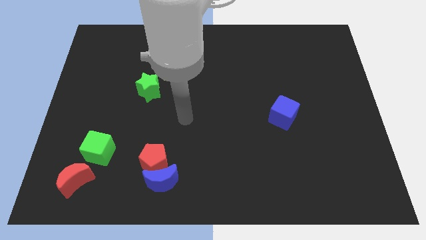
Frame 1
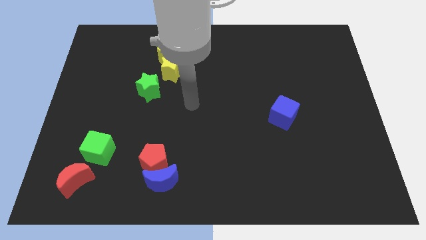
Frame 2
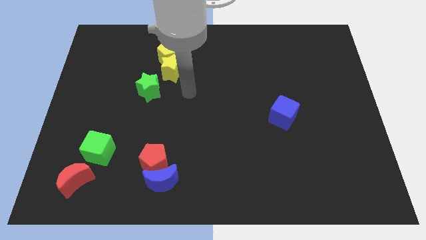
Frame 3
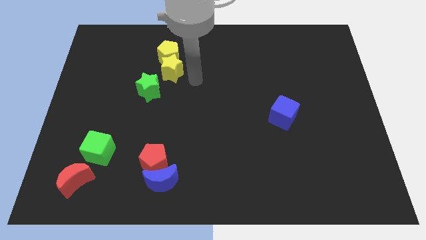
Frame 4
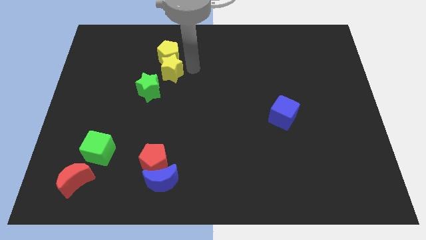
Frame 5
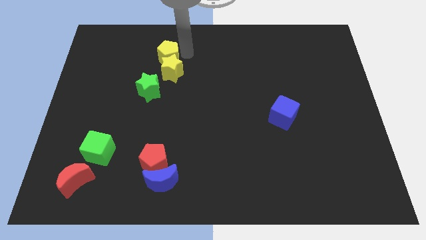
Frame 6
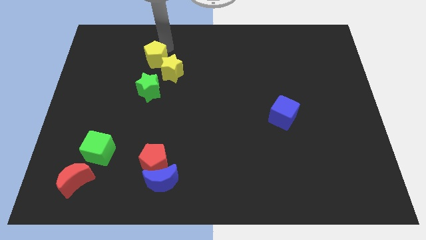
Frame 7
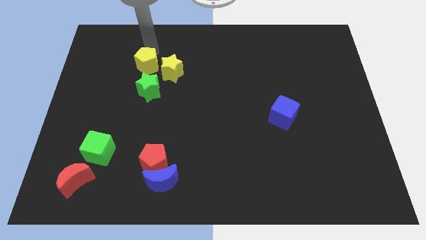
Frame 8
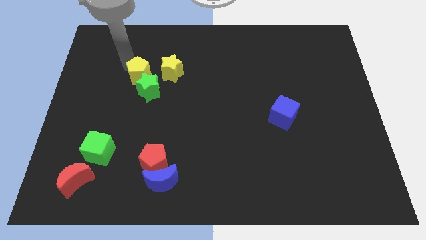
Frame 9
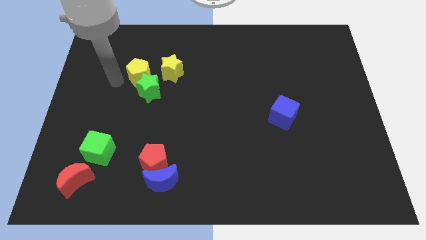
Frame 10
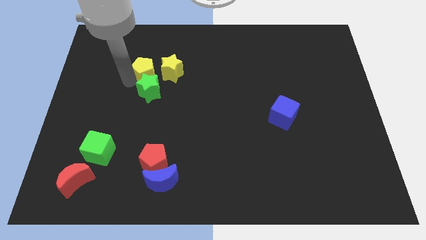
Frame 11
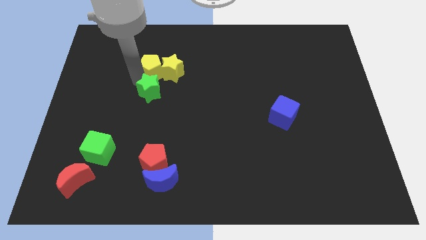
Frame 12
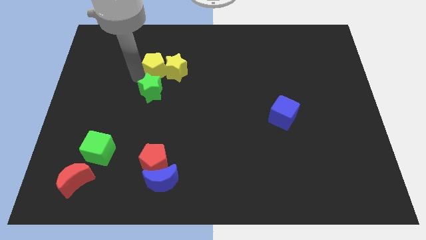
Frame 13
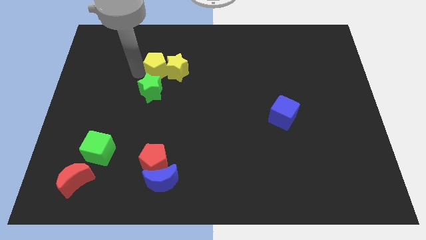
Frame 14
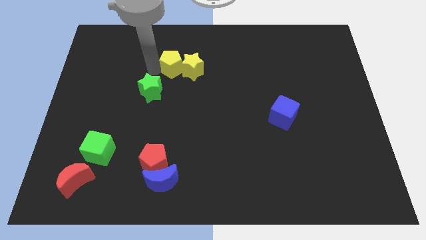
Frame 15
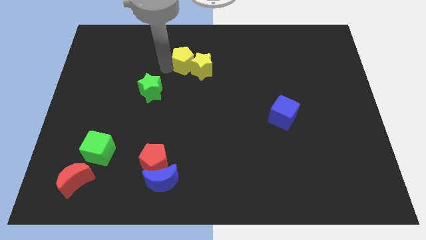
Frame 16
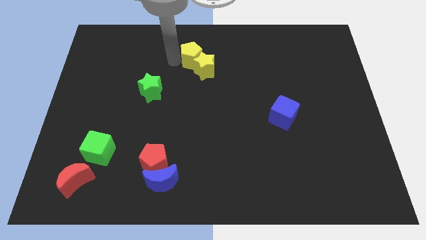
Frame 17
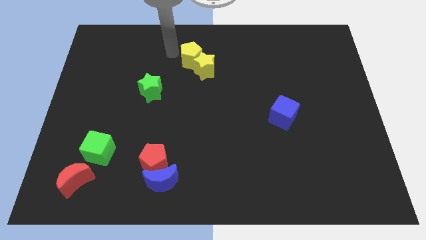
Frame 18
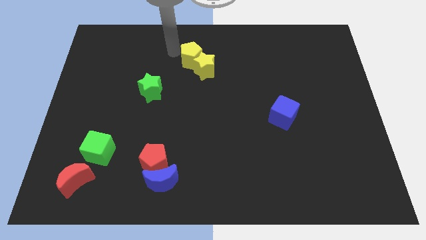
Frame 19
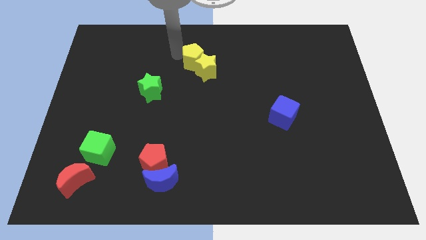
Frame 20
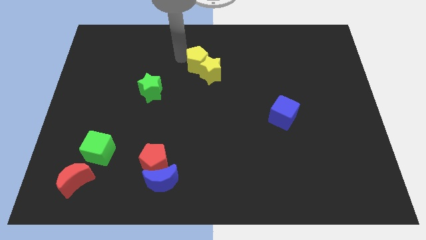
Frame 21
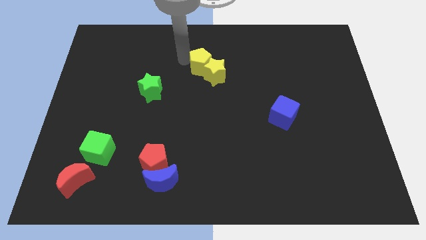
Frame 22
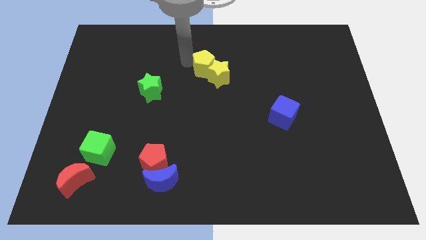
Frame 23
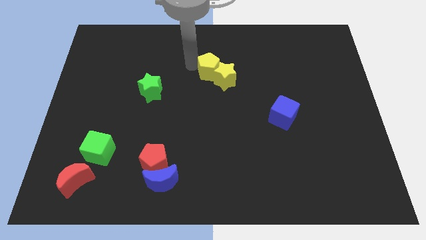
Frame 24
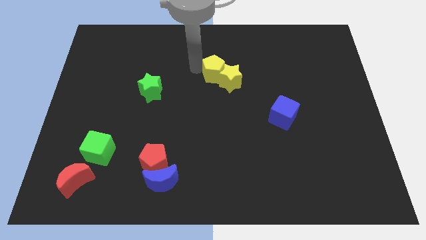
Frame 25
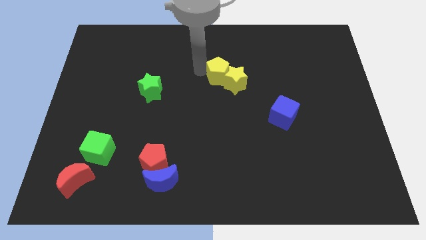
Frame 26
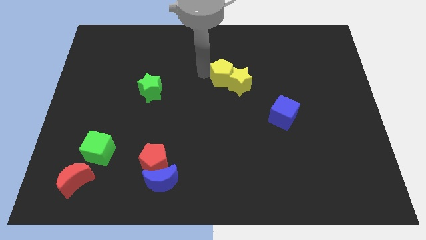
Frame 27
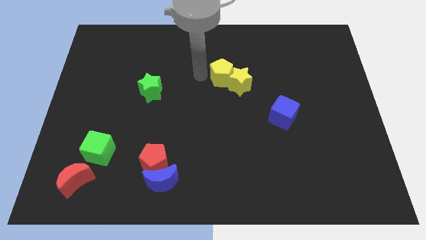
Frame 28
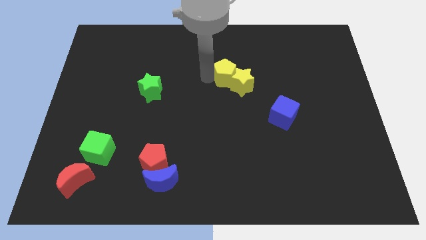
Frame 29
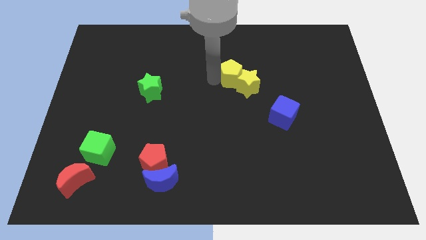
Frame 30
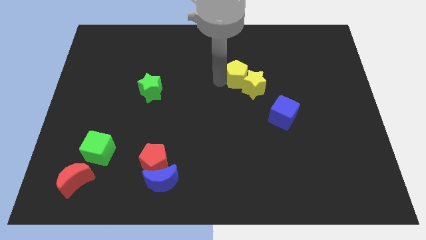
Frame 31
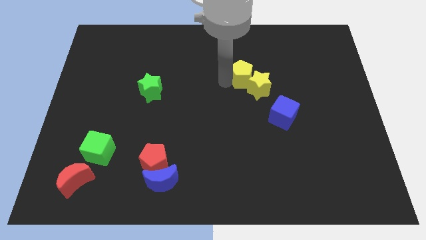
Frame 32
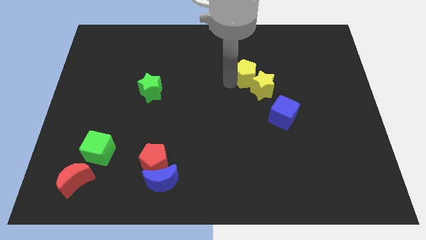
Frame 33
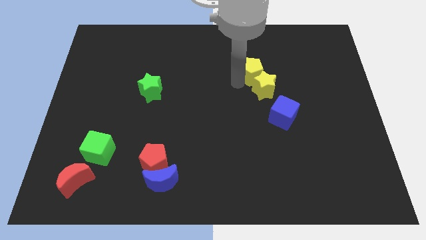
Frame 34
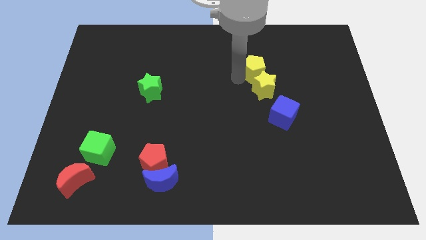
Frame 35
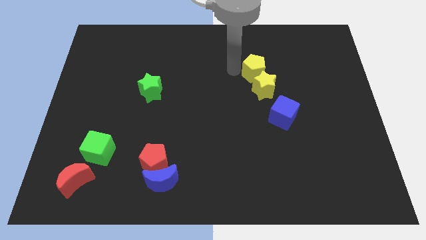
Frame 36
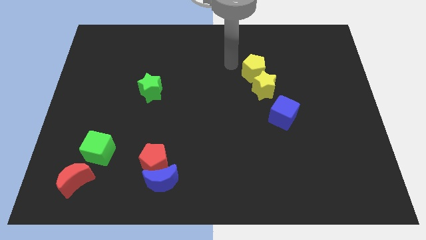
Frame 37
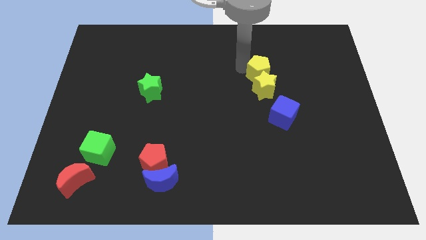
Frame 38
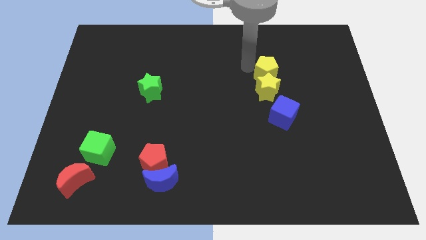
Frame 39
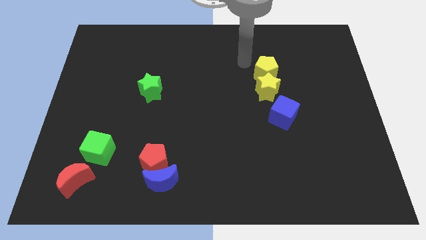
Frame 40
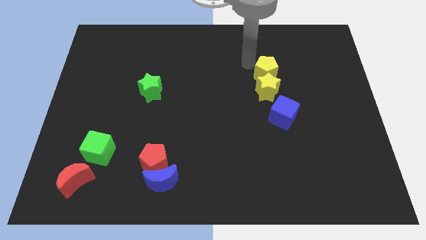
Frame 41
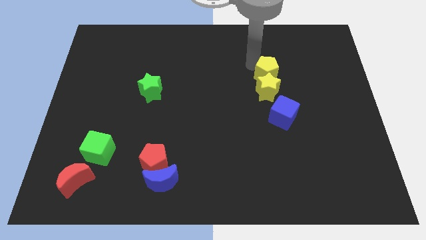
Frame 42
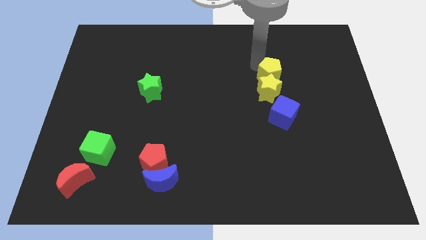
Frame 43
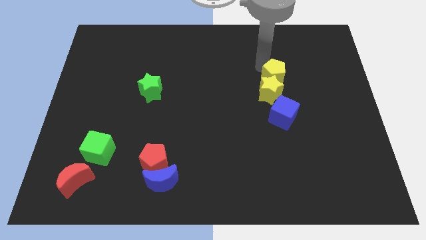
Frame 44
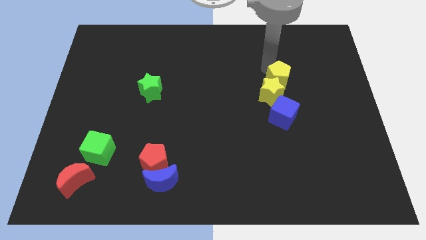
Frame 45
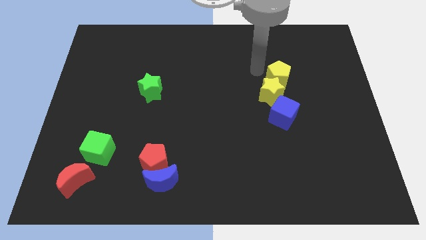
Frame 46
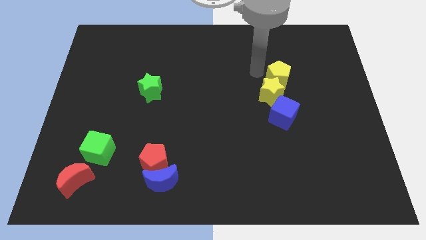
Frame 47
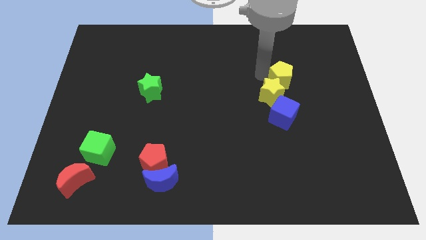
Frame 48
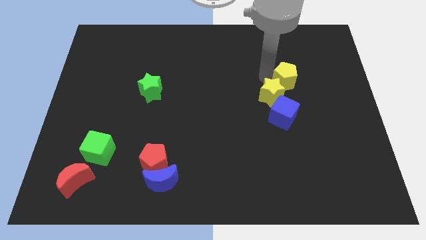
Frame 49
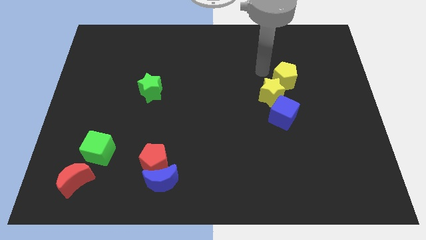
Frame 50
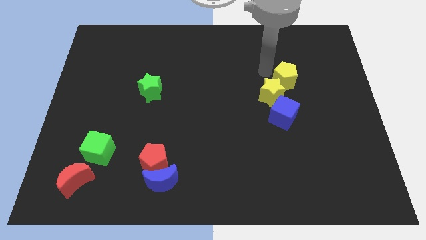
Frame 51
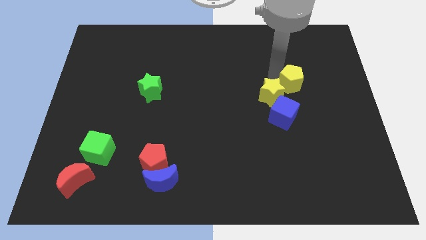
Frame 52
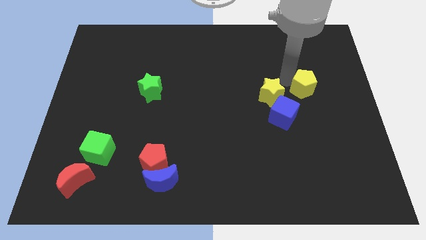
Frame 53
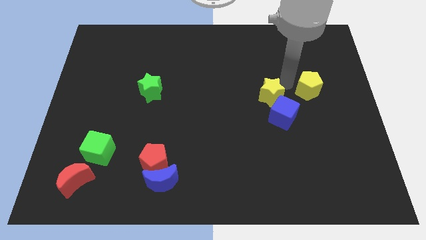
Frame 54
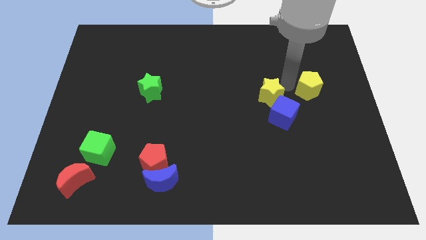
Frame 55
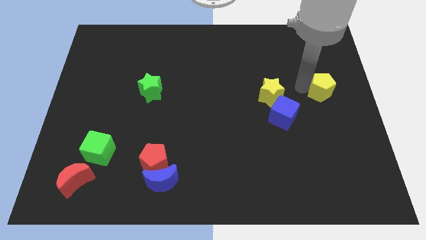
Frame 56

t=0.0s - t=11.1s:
push the yellow pentagon to the right side

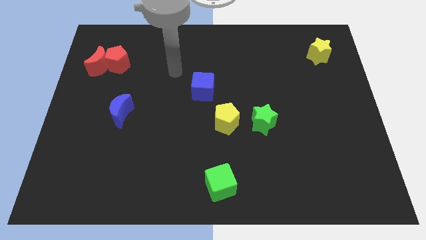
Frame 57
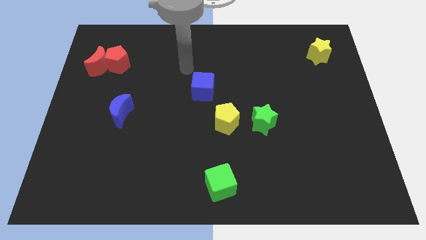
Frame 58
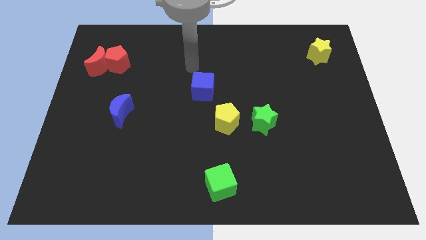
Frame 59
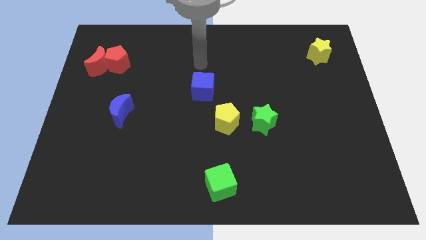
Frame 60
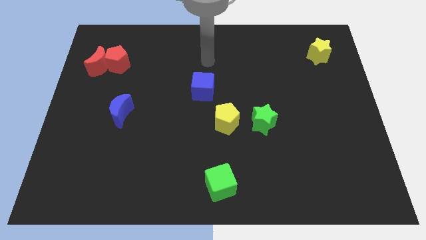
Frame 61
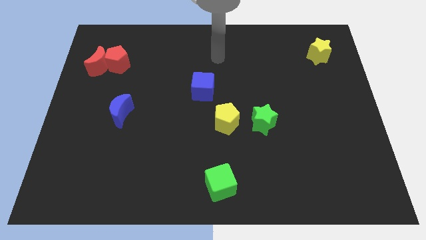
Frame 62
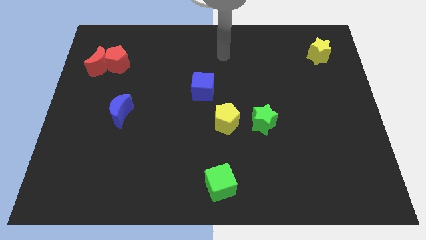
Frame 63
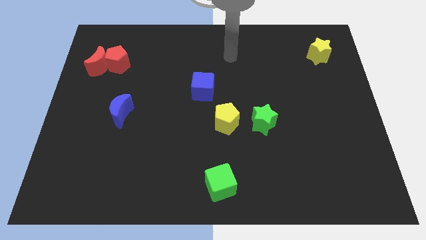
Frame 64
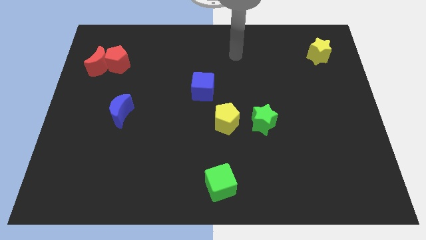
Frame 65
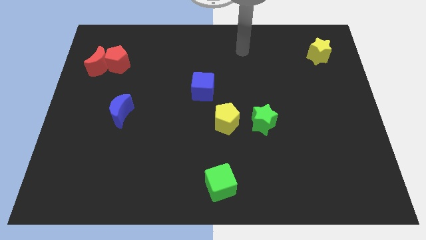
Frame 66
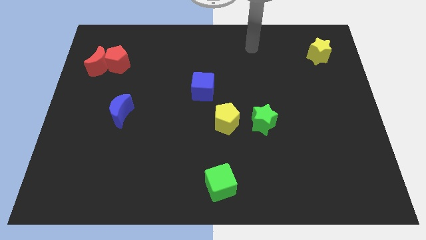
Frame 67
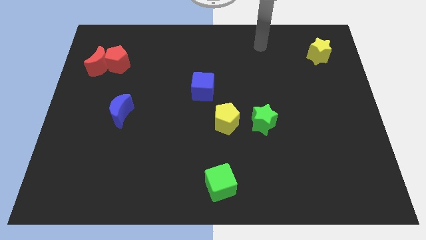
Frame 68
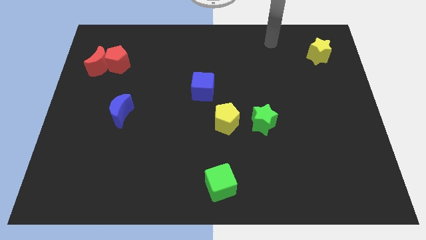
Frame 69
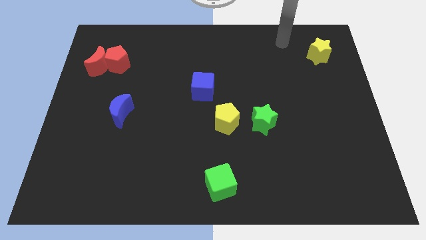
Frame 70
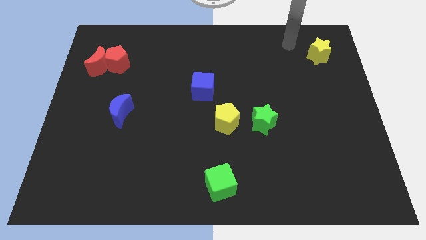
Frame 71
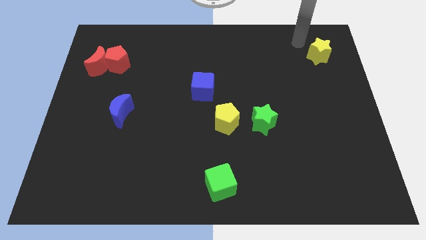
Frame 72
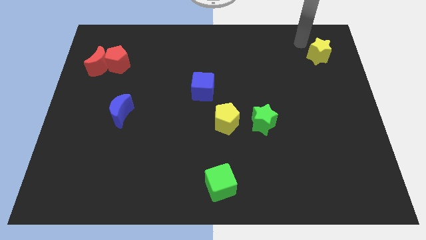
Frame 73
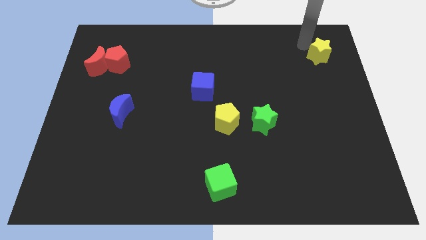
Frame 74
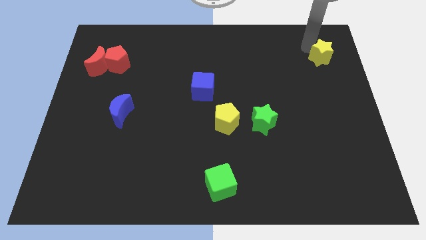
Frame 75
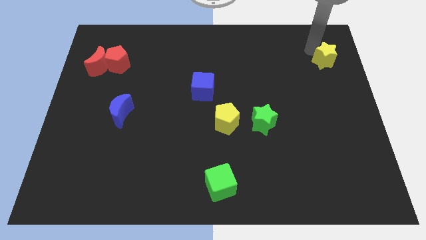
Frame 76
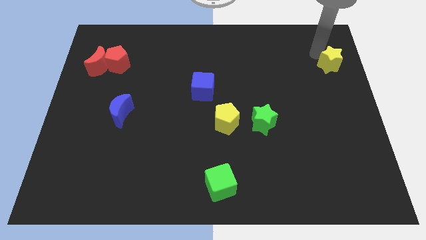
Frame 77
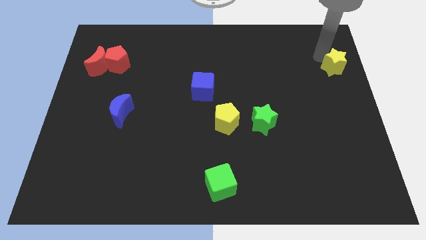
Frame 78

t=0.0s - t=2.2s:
push the yellow star to the right side of the board
